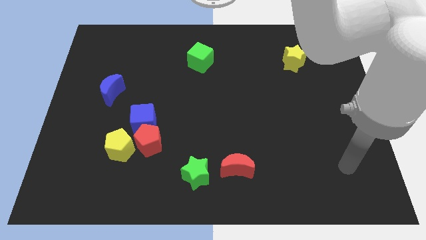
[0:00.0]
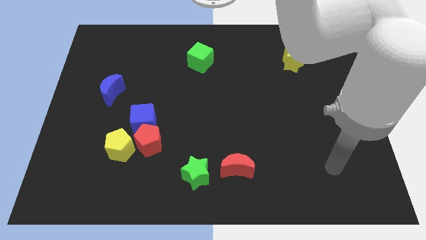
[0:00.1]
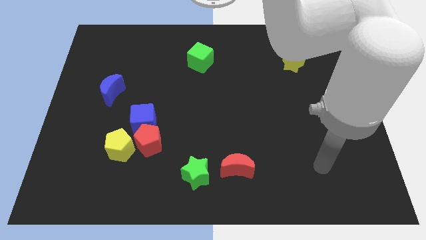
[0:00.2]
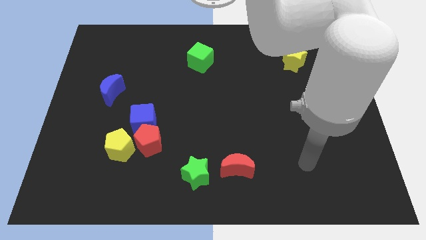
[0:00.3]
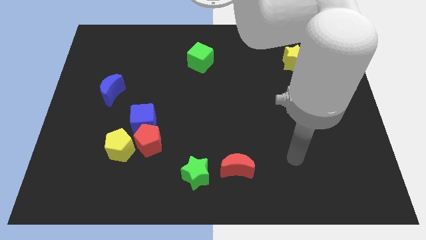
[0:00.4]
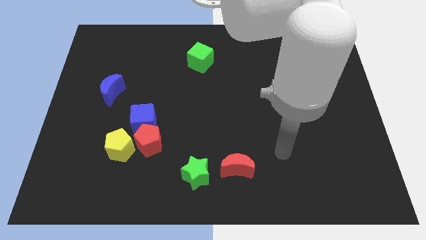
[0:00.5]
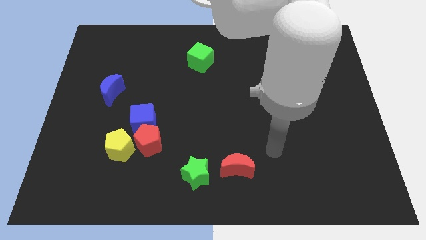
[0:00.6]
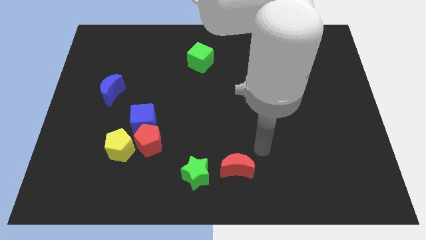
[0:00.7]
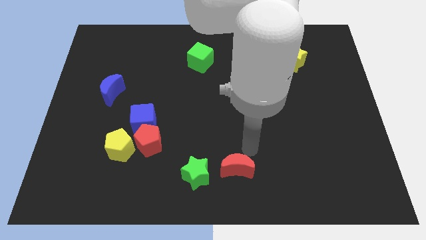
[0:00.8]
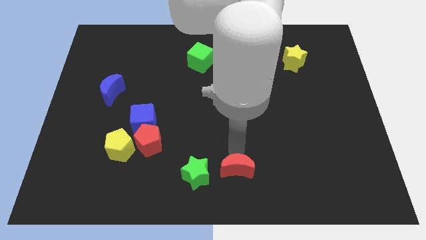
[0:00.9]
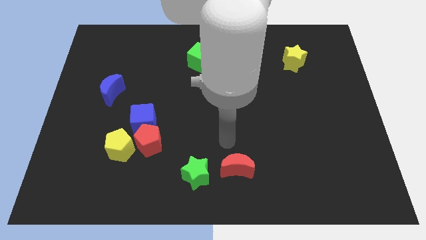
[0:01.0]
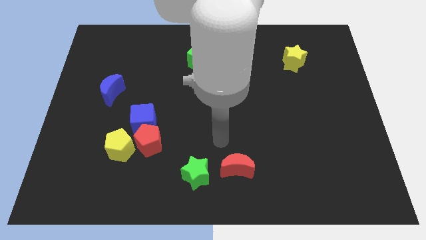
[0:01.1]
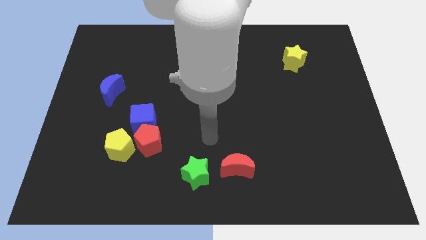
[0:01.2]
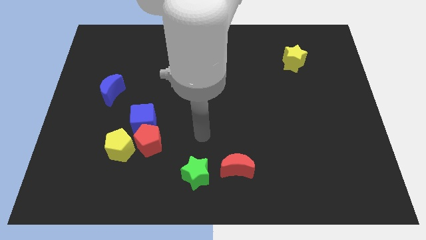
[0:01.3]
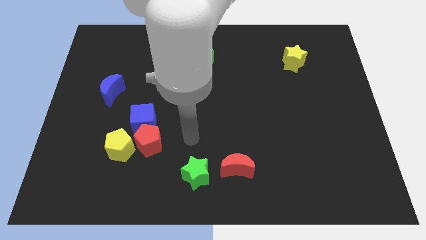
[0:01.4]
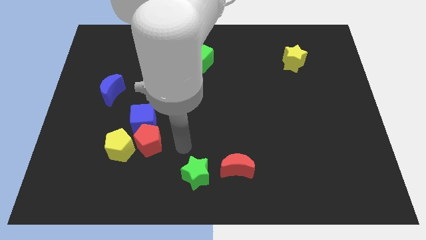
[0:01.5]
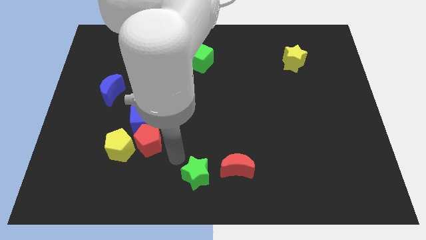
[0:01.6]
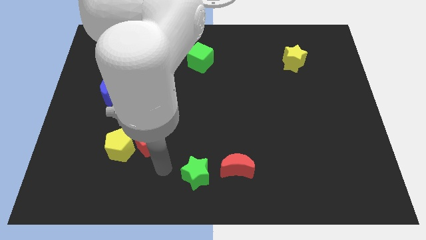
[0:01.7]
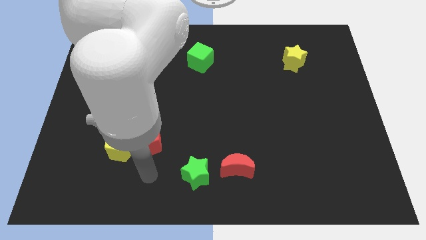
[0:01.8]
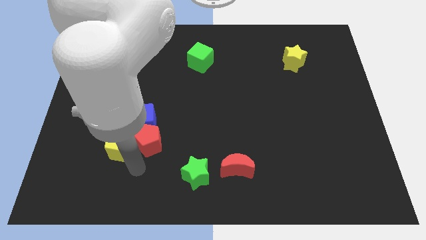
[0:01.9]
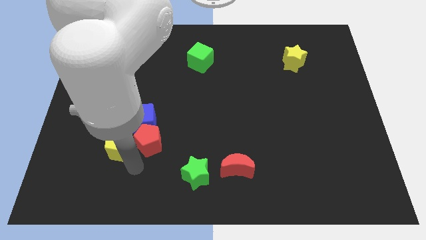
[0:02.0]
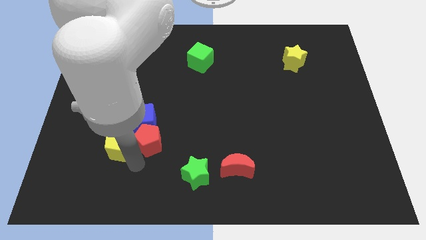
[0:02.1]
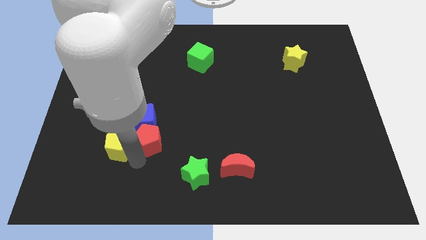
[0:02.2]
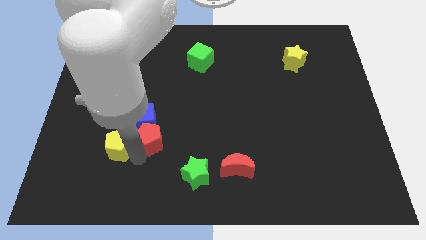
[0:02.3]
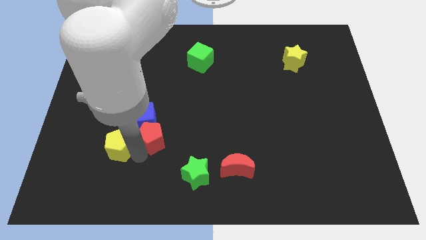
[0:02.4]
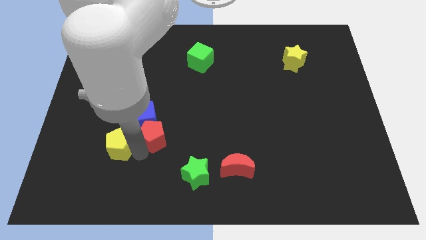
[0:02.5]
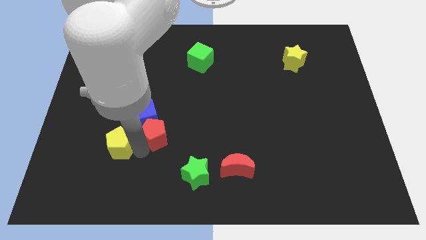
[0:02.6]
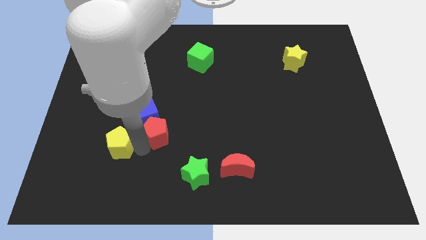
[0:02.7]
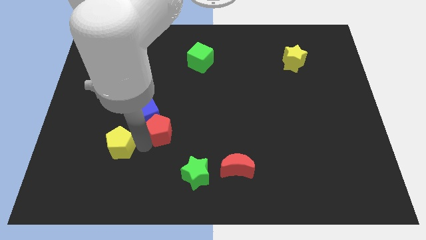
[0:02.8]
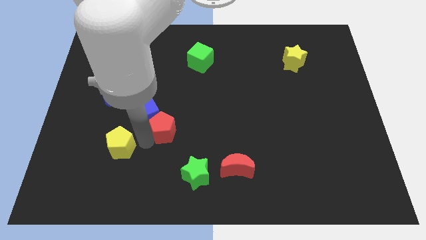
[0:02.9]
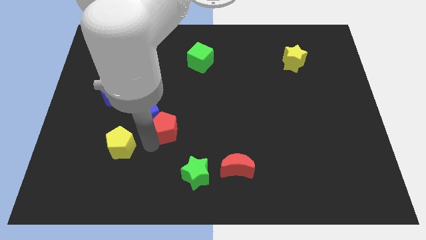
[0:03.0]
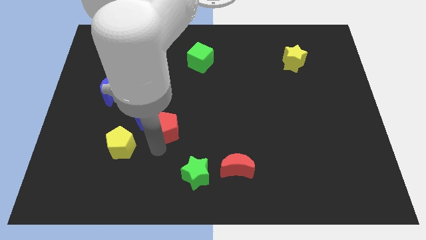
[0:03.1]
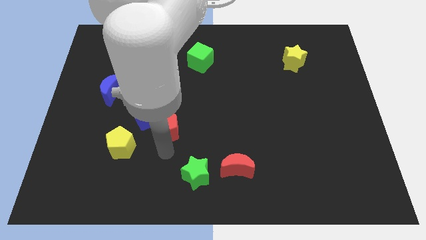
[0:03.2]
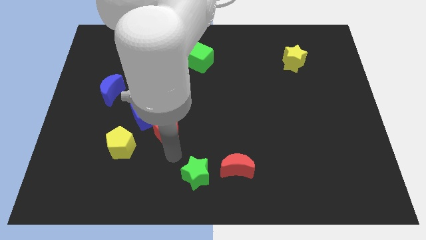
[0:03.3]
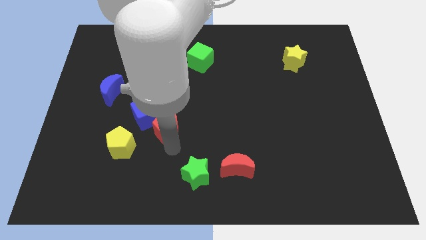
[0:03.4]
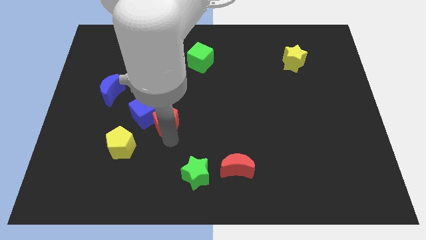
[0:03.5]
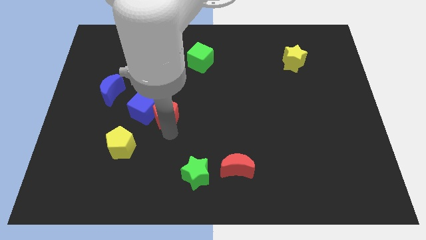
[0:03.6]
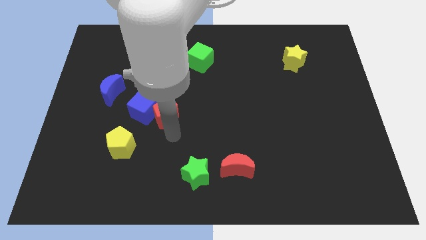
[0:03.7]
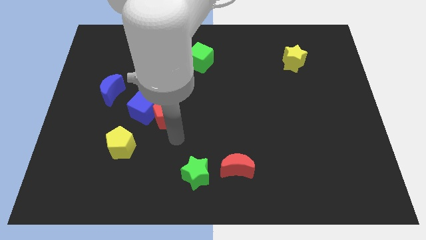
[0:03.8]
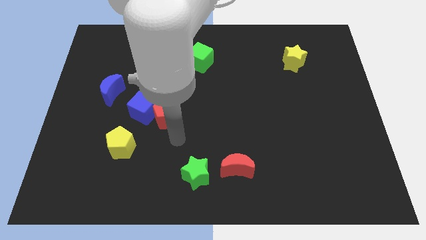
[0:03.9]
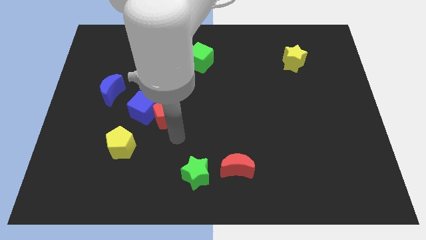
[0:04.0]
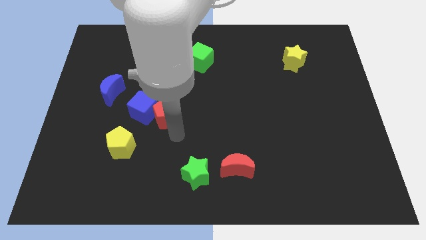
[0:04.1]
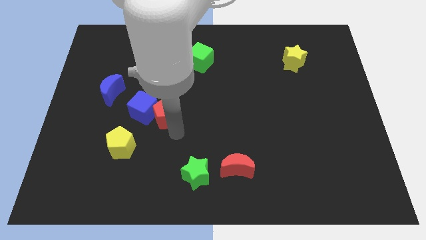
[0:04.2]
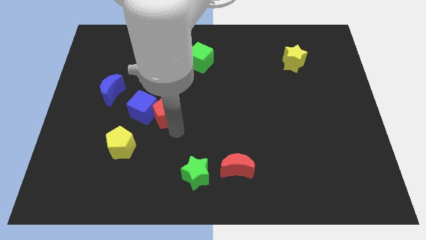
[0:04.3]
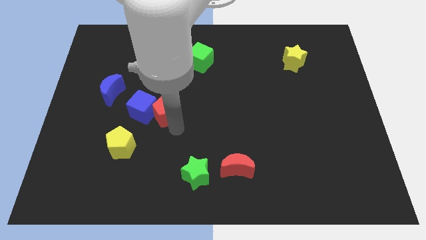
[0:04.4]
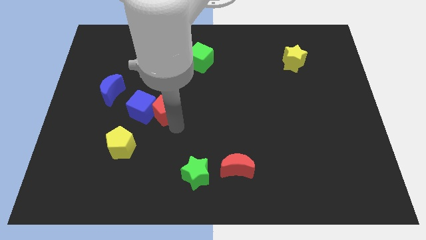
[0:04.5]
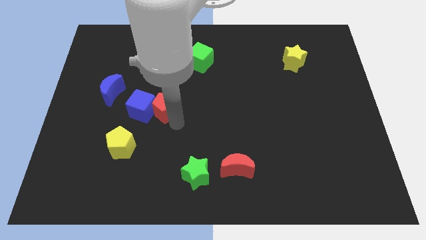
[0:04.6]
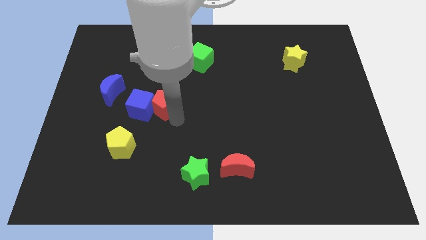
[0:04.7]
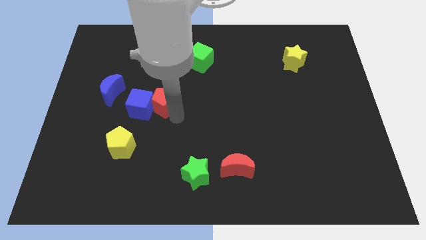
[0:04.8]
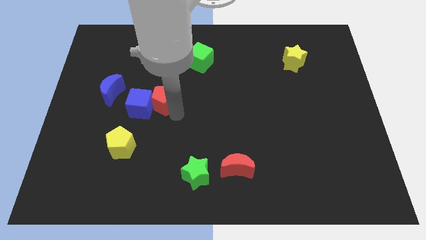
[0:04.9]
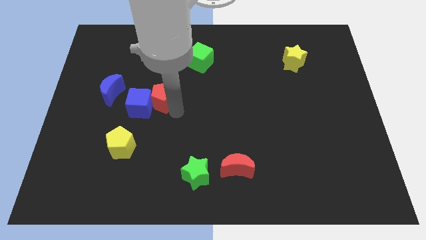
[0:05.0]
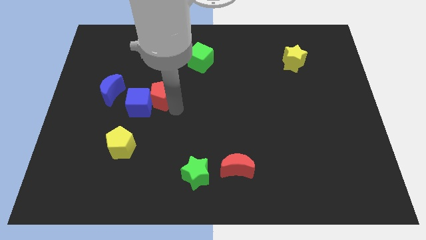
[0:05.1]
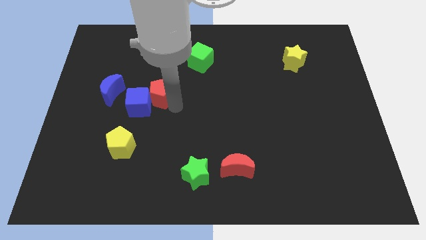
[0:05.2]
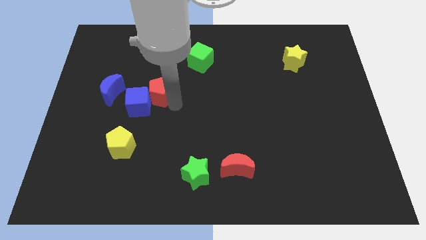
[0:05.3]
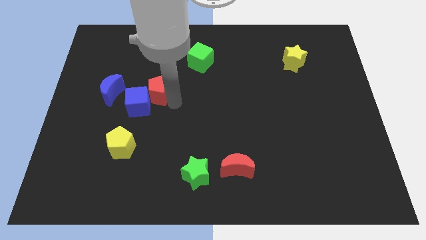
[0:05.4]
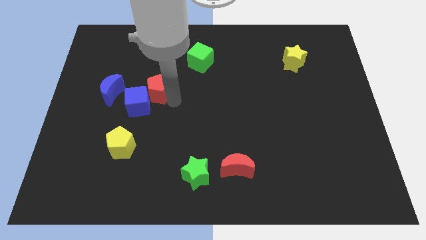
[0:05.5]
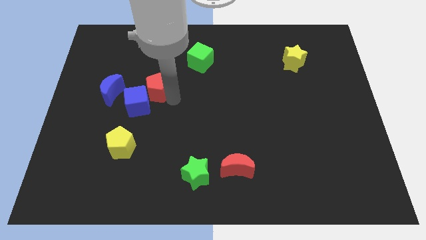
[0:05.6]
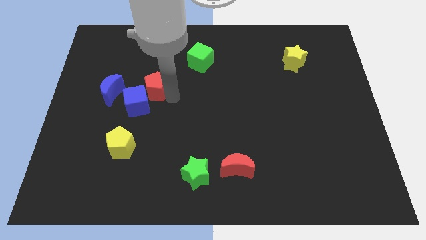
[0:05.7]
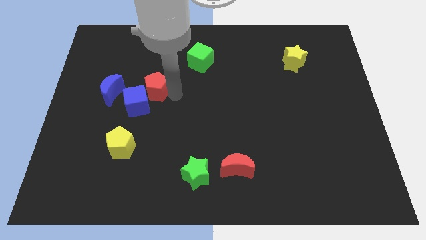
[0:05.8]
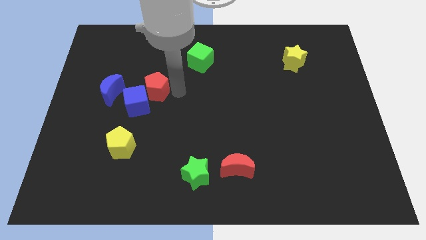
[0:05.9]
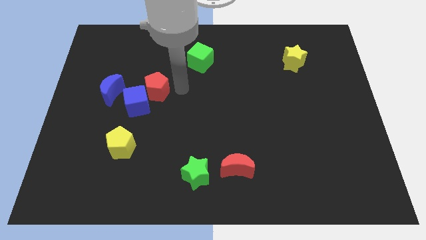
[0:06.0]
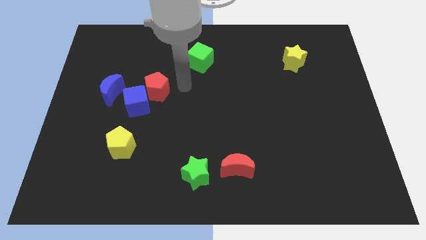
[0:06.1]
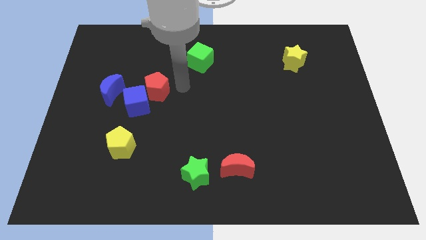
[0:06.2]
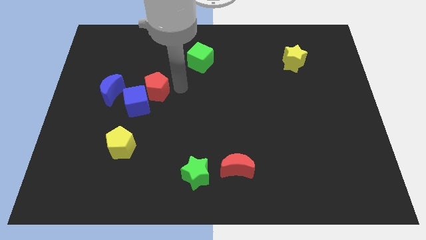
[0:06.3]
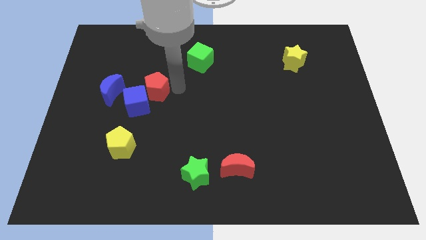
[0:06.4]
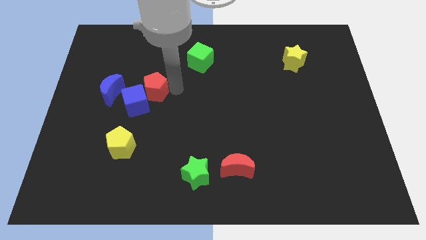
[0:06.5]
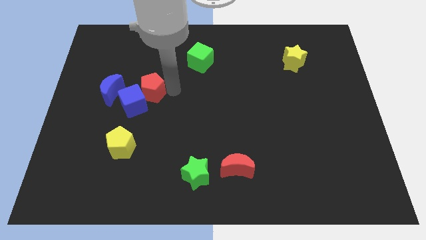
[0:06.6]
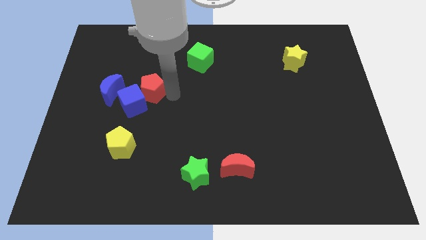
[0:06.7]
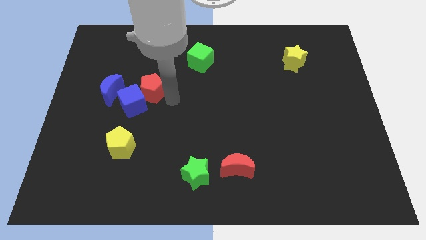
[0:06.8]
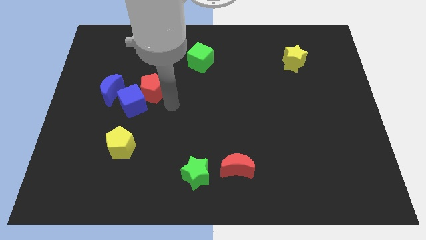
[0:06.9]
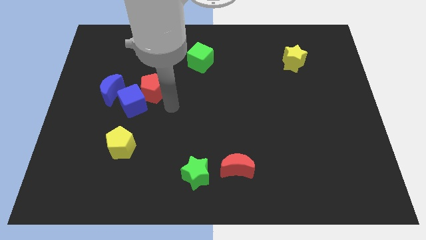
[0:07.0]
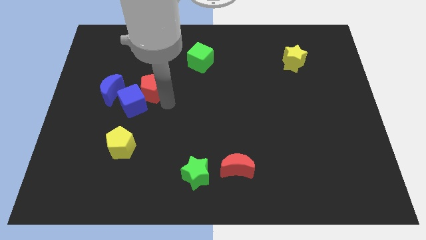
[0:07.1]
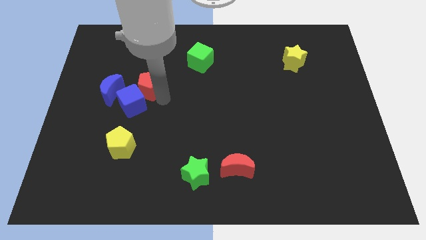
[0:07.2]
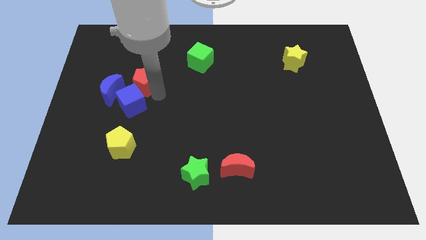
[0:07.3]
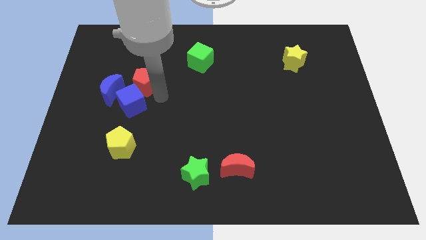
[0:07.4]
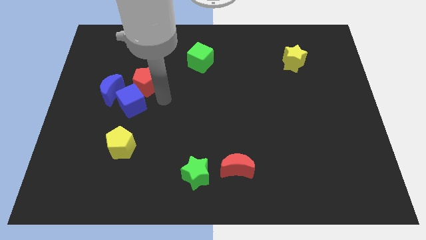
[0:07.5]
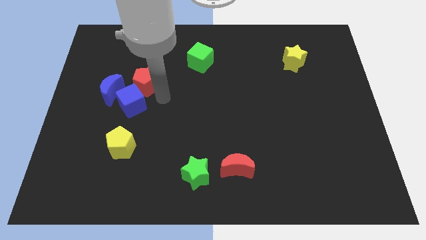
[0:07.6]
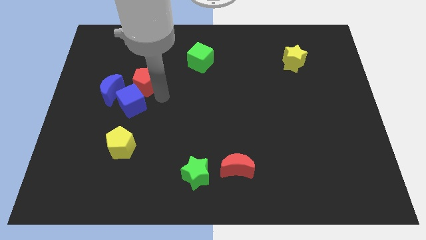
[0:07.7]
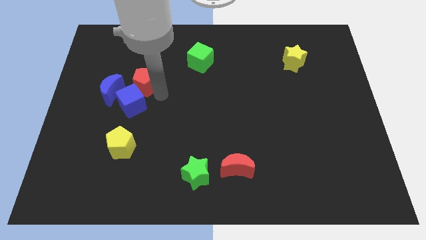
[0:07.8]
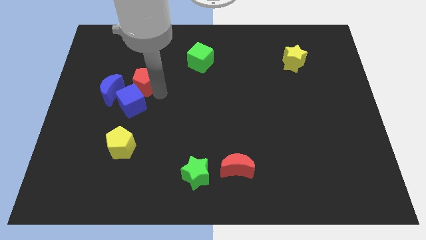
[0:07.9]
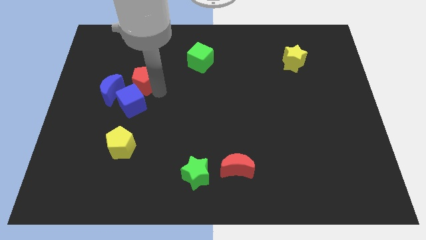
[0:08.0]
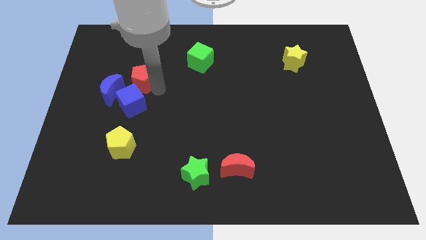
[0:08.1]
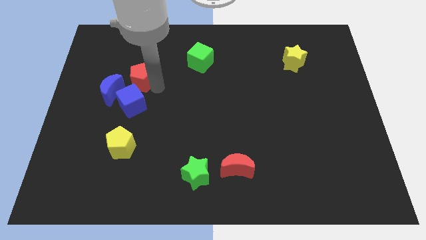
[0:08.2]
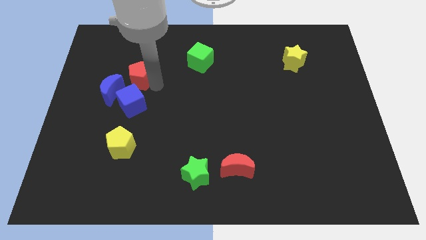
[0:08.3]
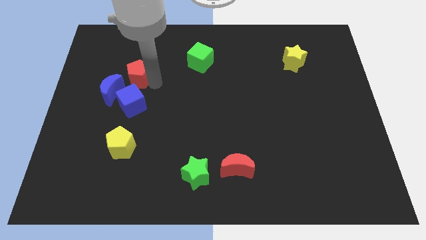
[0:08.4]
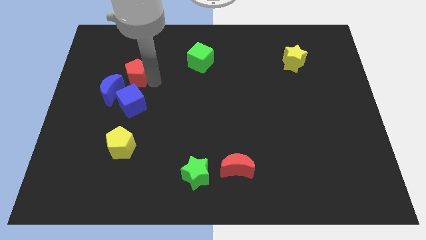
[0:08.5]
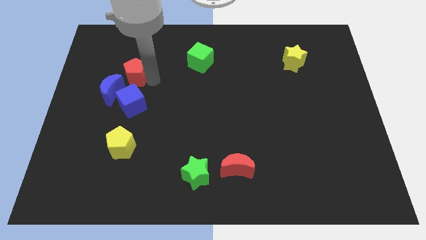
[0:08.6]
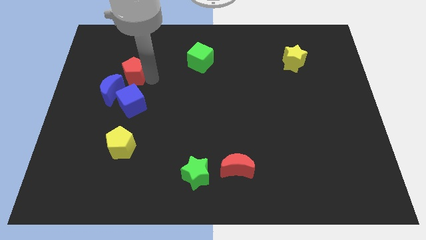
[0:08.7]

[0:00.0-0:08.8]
push the red pentagon above the blue moon
